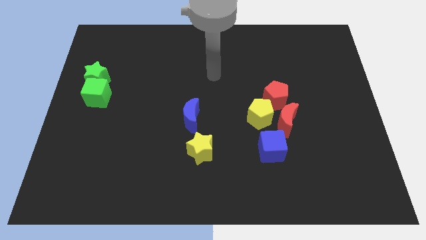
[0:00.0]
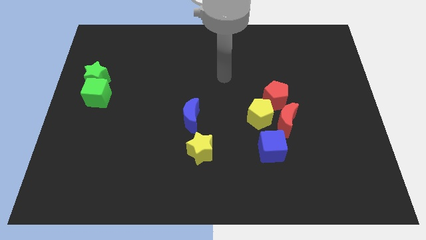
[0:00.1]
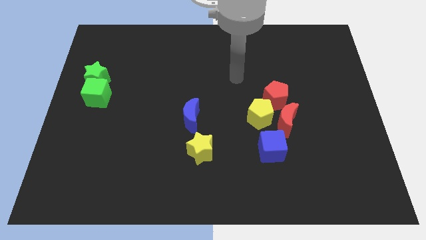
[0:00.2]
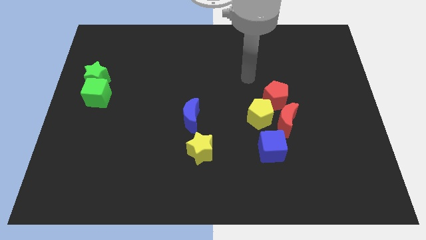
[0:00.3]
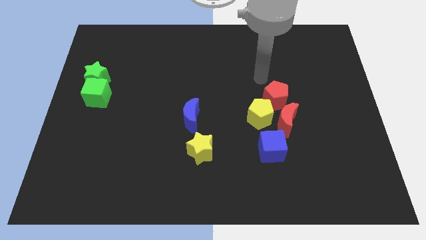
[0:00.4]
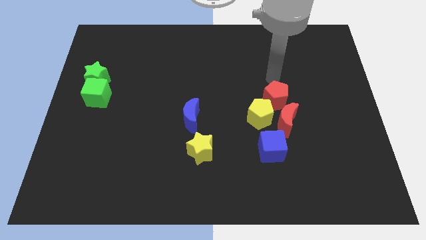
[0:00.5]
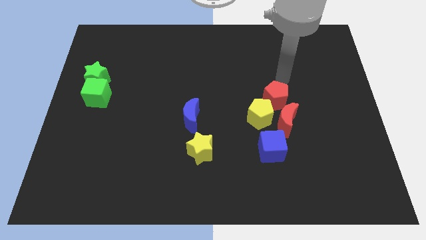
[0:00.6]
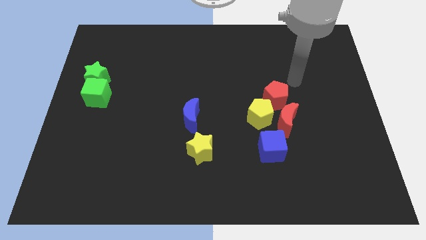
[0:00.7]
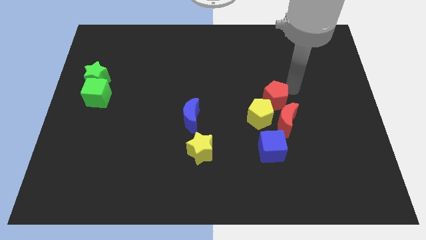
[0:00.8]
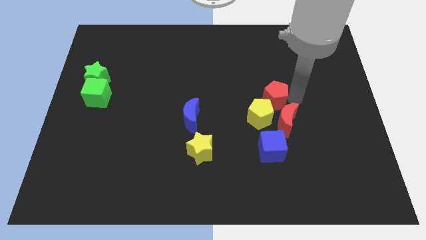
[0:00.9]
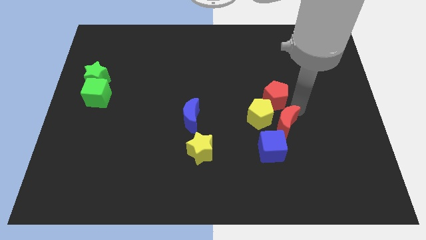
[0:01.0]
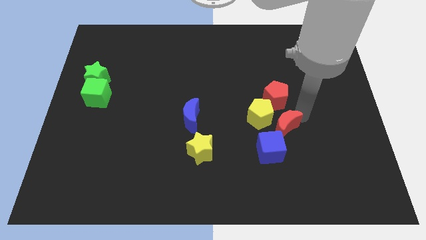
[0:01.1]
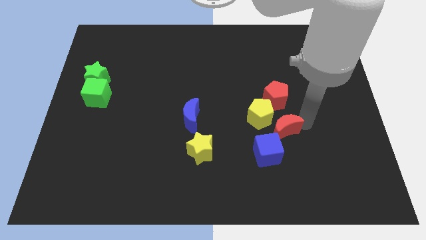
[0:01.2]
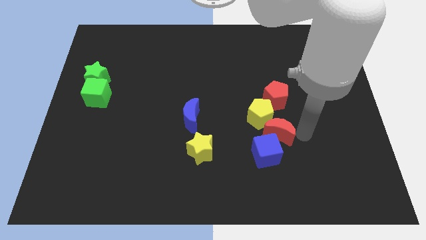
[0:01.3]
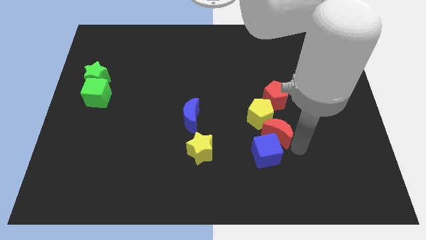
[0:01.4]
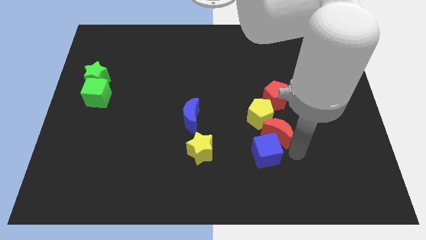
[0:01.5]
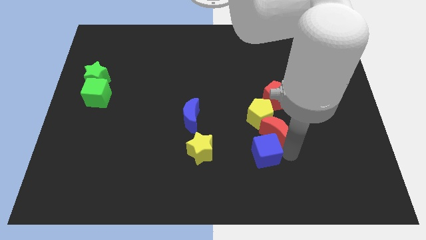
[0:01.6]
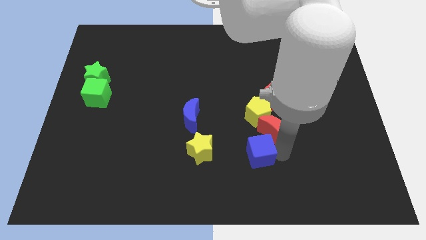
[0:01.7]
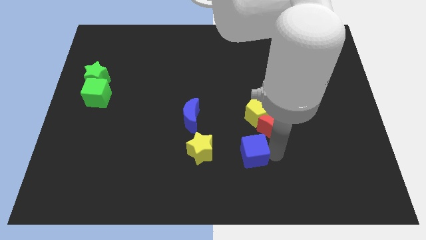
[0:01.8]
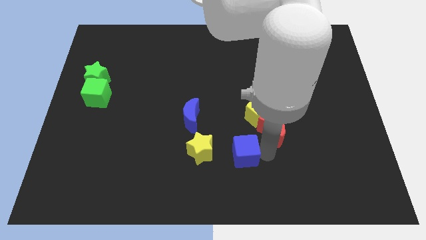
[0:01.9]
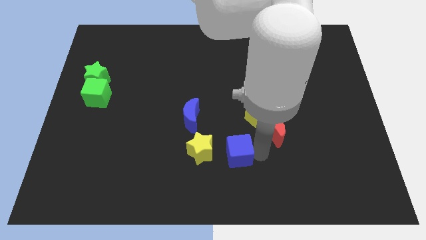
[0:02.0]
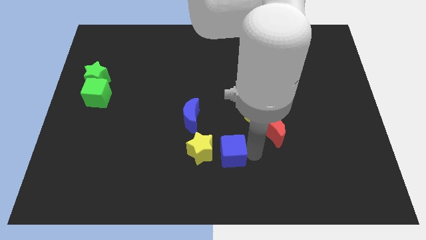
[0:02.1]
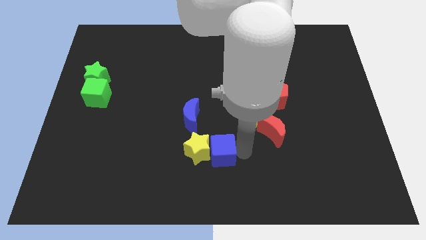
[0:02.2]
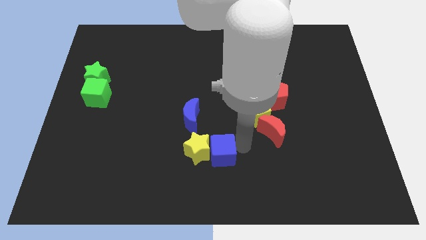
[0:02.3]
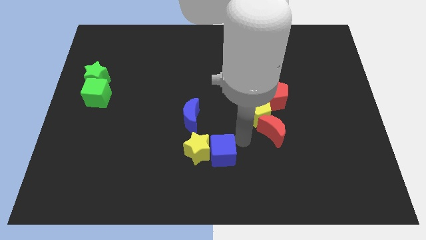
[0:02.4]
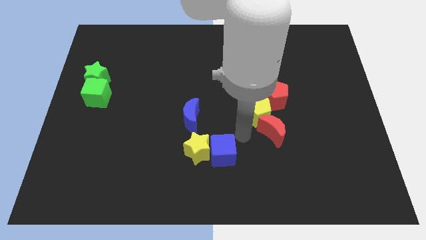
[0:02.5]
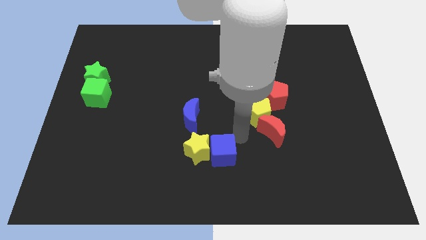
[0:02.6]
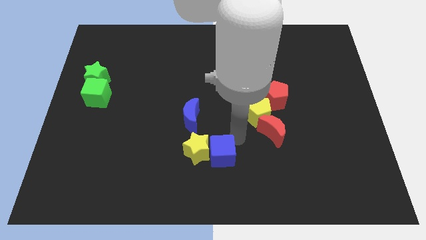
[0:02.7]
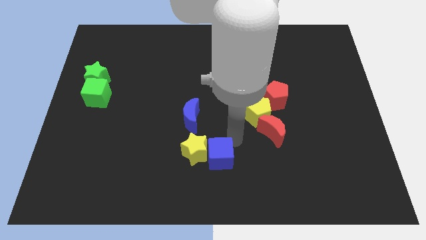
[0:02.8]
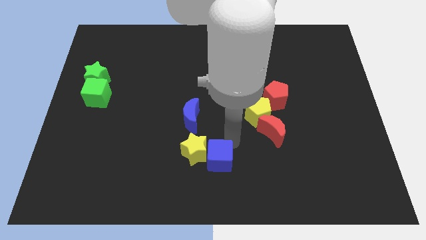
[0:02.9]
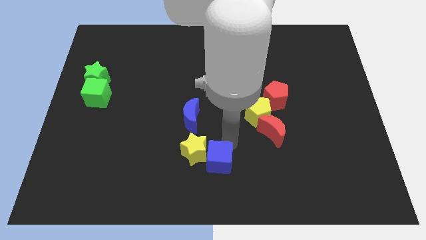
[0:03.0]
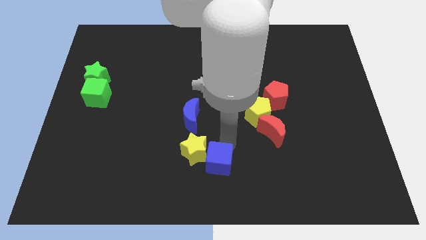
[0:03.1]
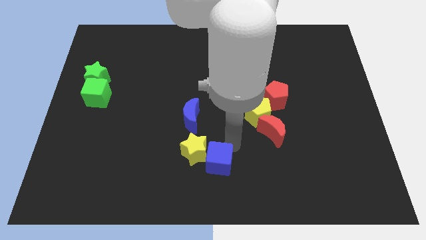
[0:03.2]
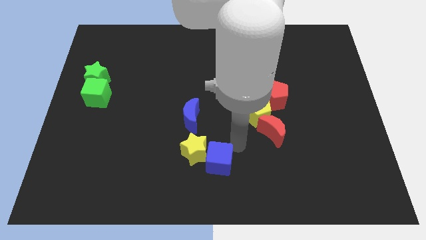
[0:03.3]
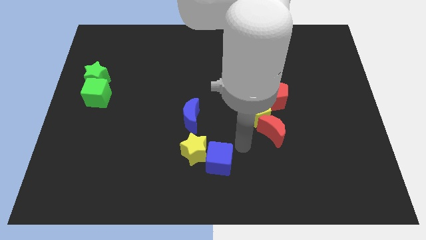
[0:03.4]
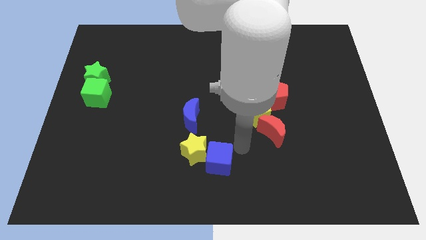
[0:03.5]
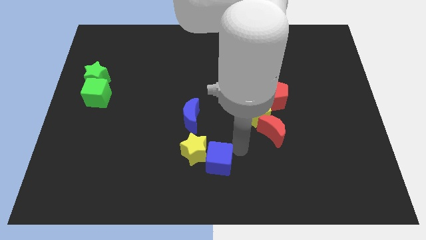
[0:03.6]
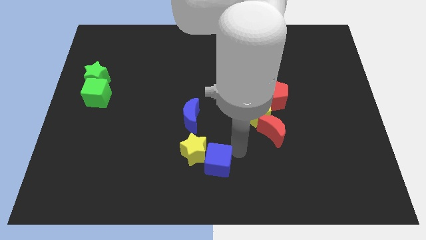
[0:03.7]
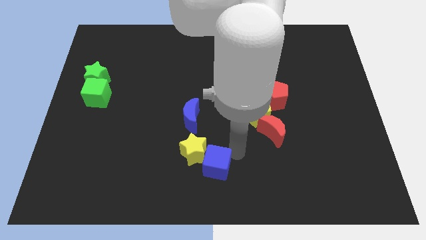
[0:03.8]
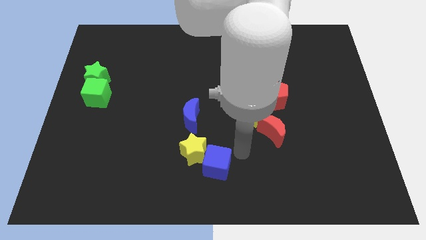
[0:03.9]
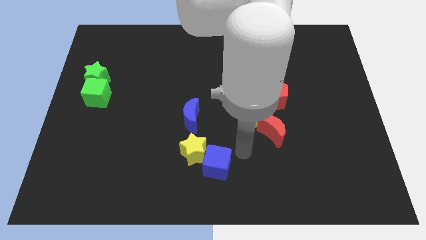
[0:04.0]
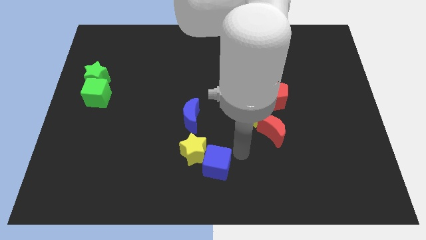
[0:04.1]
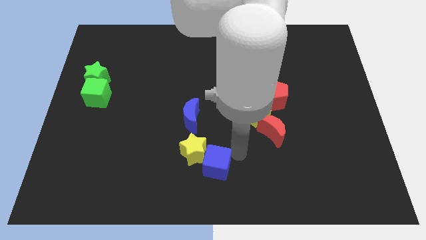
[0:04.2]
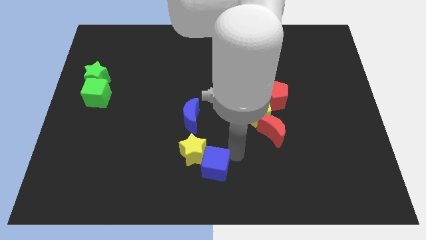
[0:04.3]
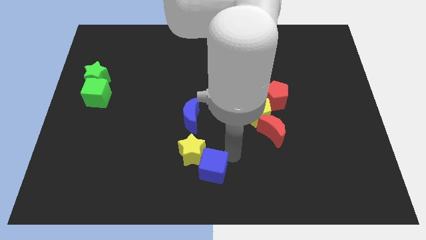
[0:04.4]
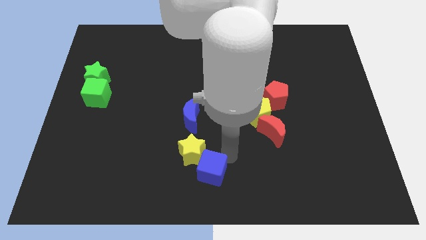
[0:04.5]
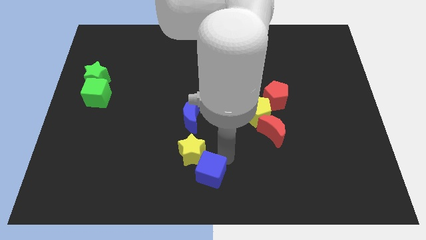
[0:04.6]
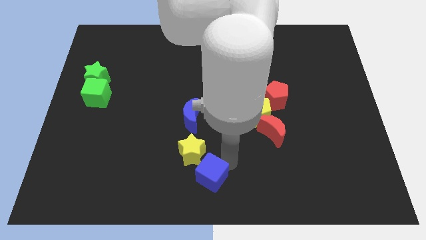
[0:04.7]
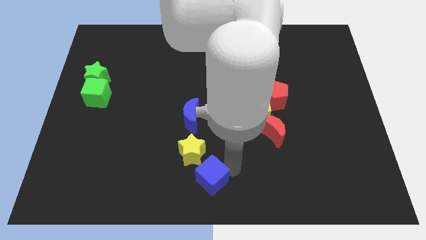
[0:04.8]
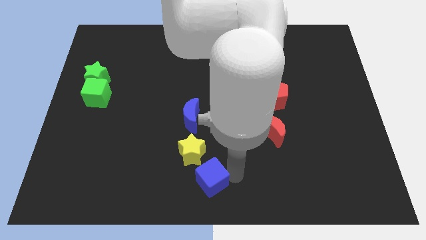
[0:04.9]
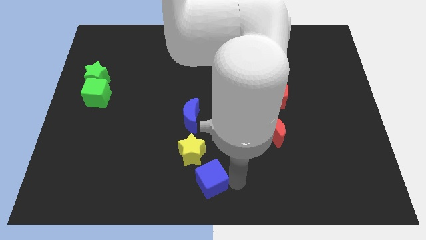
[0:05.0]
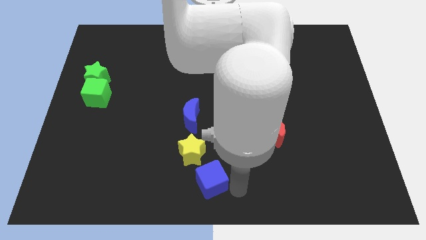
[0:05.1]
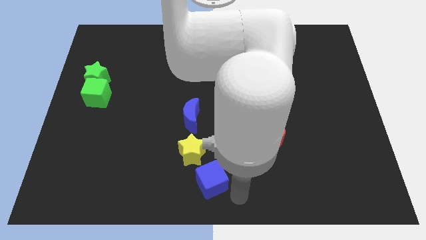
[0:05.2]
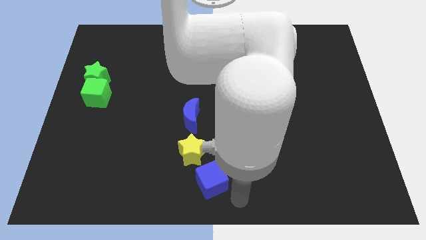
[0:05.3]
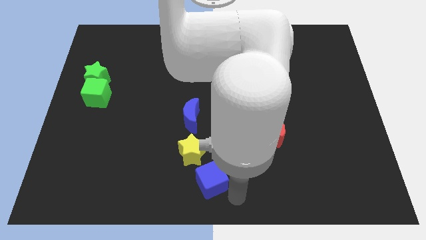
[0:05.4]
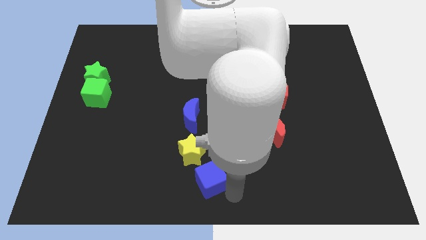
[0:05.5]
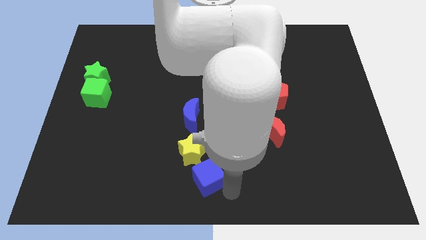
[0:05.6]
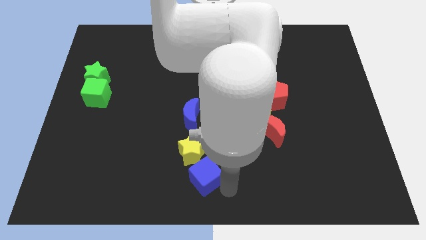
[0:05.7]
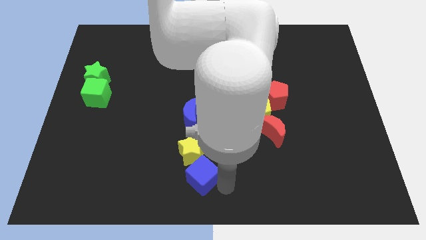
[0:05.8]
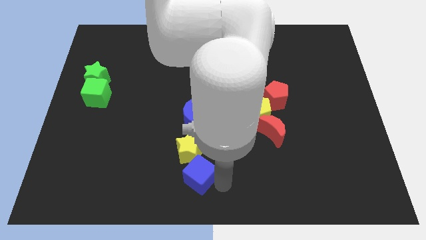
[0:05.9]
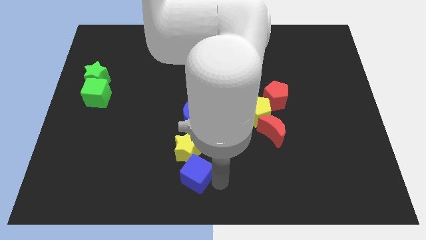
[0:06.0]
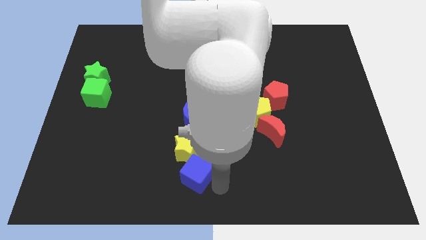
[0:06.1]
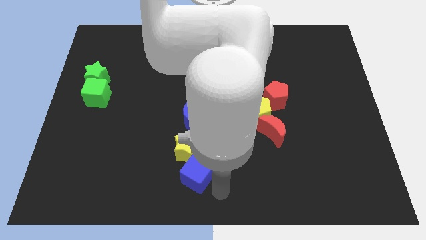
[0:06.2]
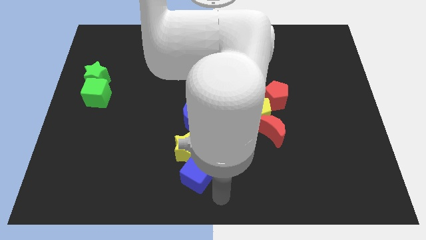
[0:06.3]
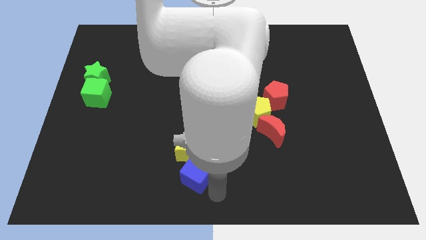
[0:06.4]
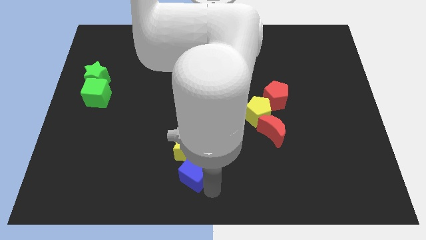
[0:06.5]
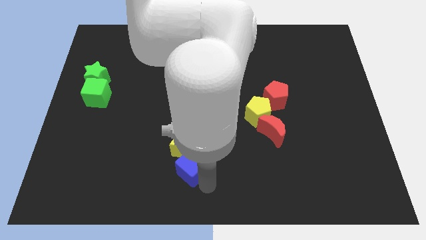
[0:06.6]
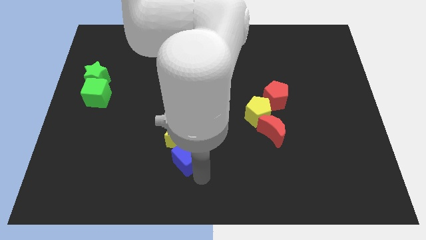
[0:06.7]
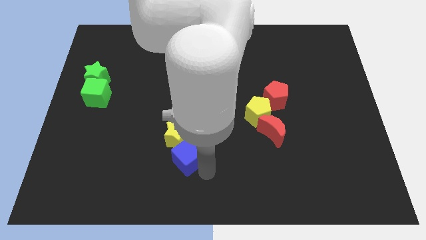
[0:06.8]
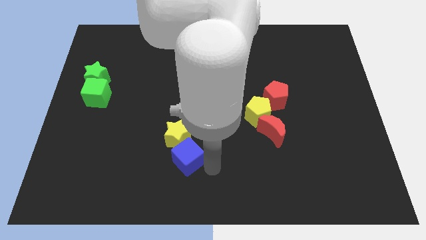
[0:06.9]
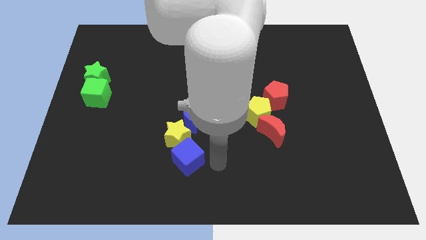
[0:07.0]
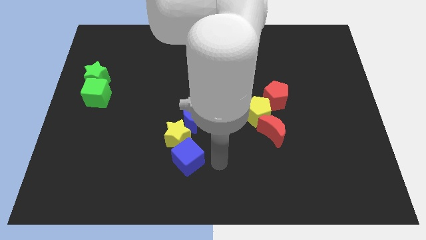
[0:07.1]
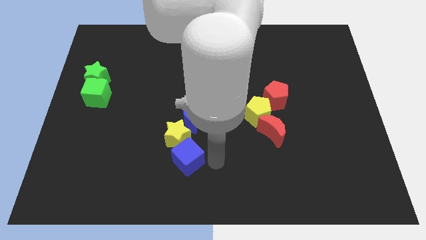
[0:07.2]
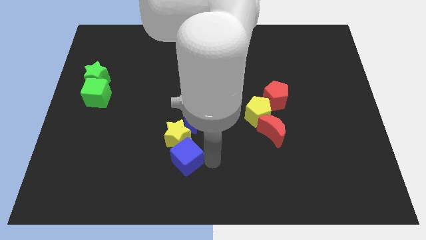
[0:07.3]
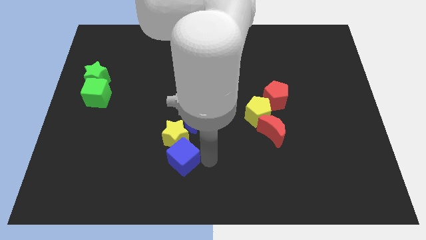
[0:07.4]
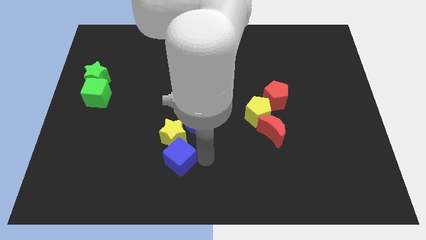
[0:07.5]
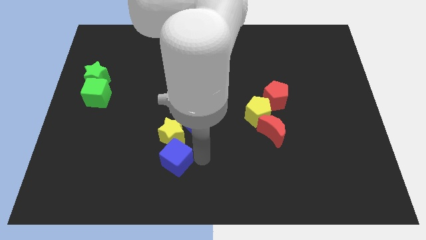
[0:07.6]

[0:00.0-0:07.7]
push the blue cube to the left

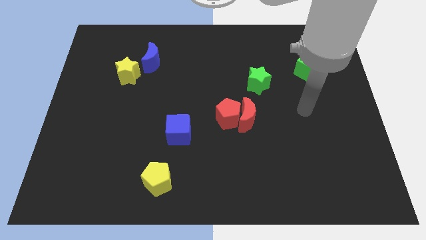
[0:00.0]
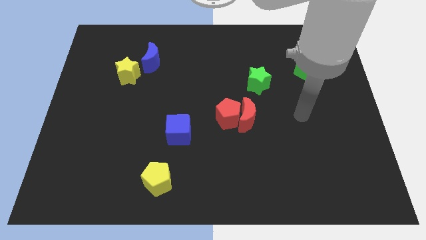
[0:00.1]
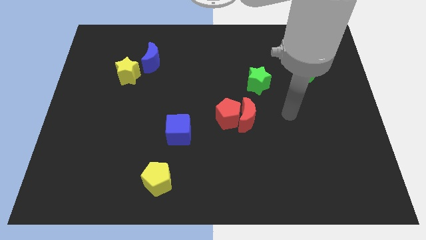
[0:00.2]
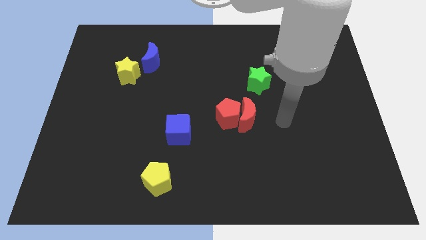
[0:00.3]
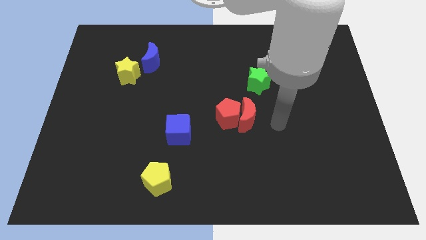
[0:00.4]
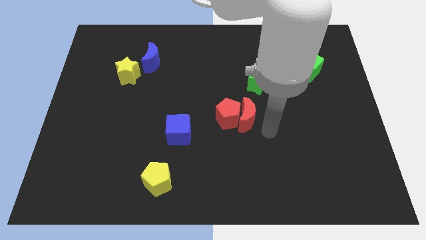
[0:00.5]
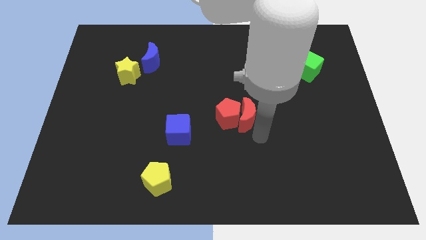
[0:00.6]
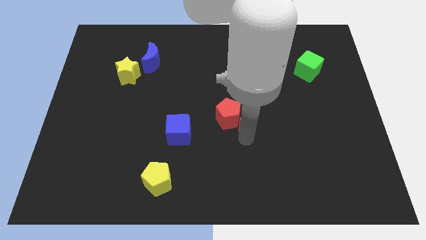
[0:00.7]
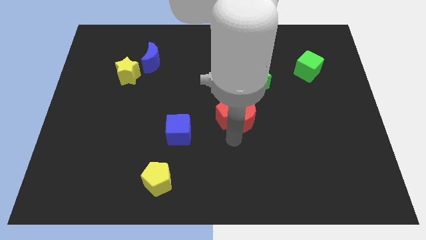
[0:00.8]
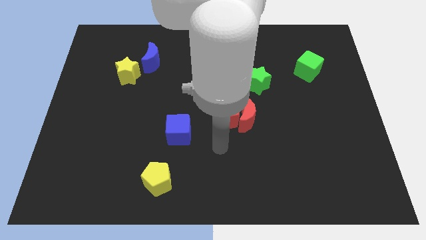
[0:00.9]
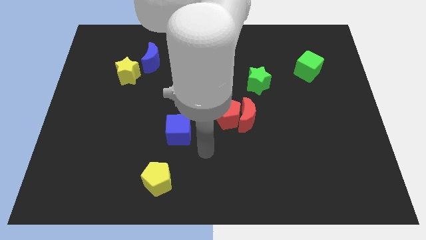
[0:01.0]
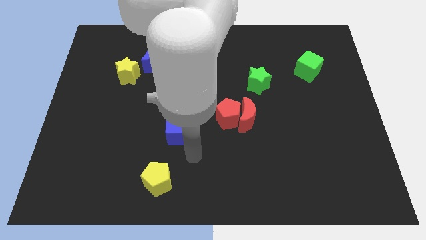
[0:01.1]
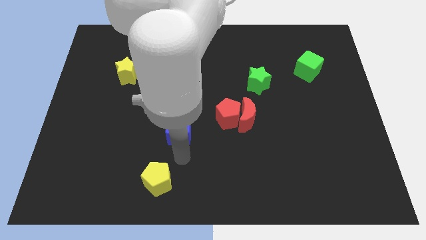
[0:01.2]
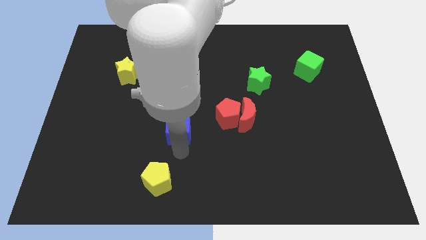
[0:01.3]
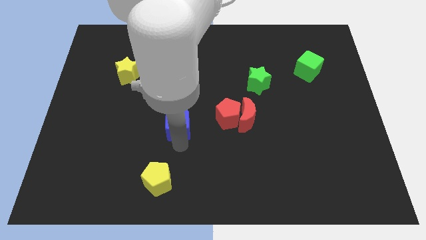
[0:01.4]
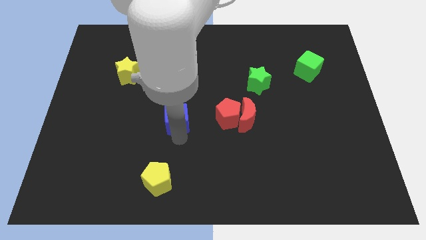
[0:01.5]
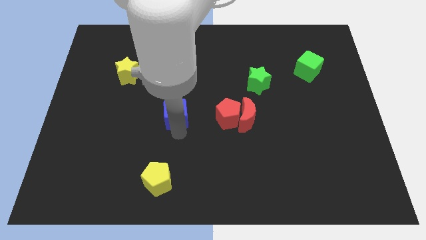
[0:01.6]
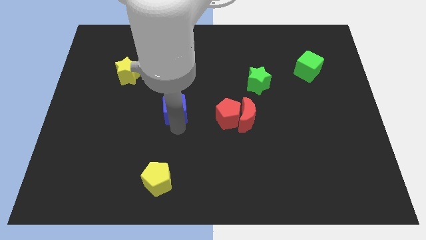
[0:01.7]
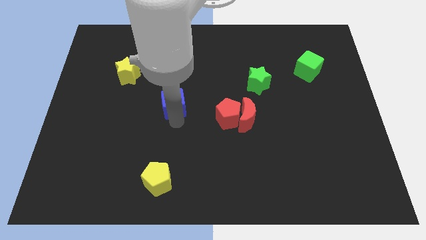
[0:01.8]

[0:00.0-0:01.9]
push the blue cube slightly upwards
